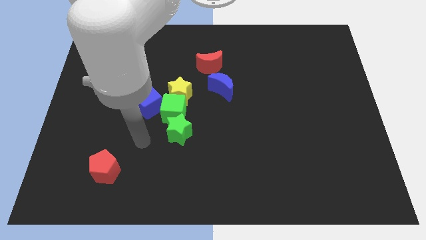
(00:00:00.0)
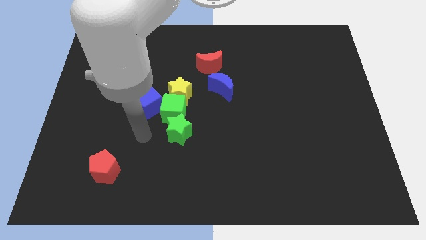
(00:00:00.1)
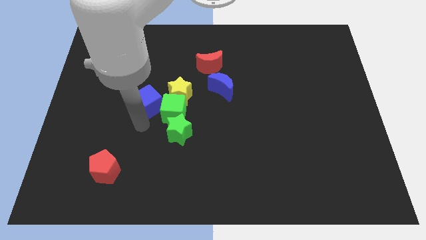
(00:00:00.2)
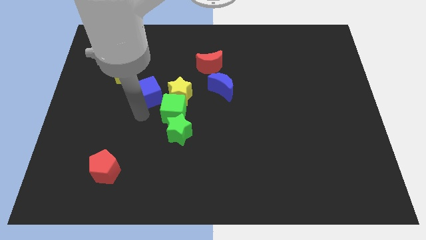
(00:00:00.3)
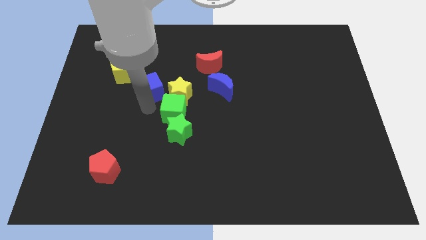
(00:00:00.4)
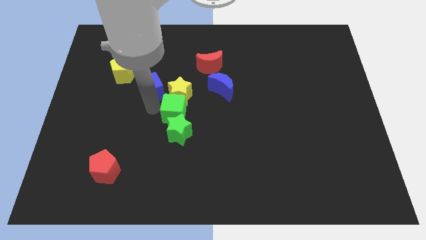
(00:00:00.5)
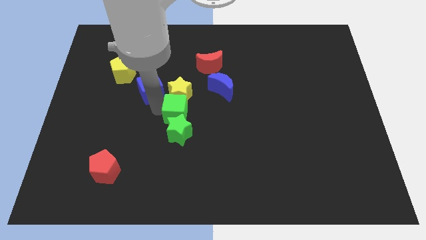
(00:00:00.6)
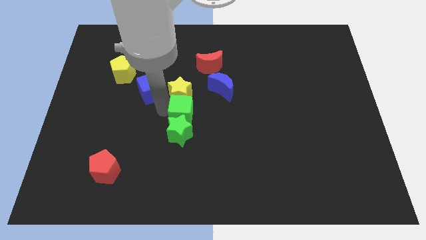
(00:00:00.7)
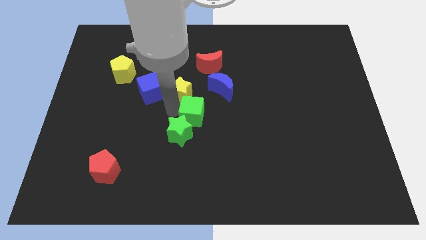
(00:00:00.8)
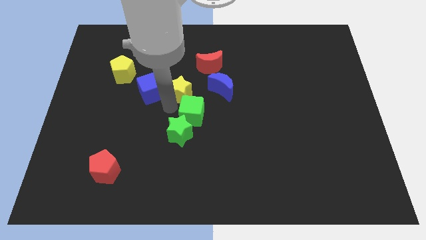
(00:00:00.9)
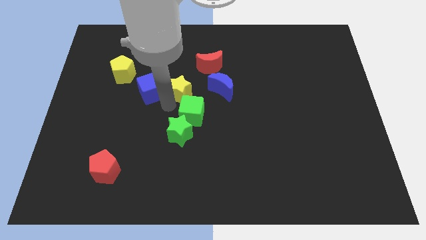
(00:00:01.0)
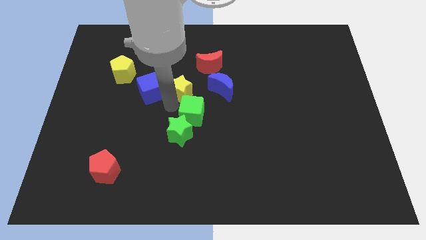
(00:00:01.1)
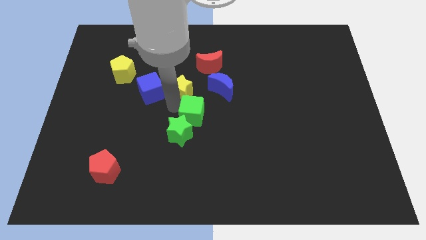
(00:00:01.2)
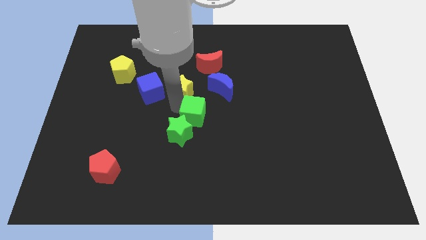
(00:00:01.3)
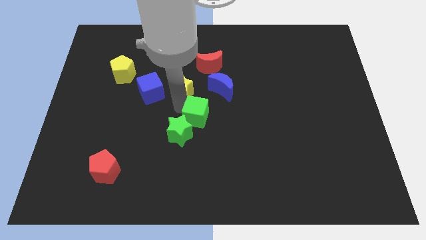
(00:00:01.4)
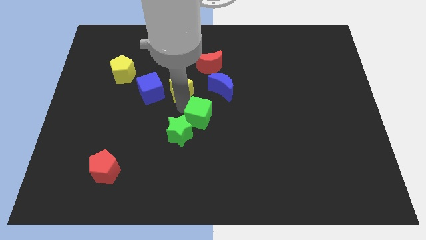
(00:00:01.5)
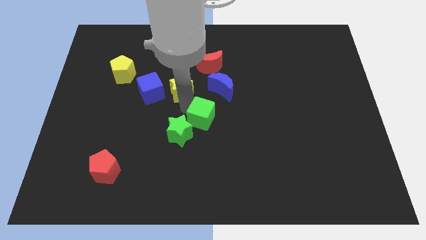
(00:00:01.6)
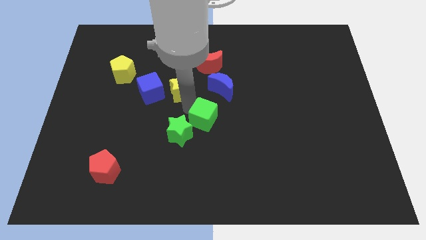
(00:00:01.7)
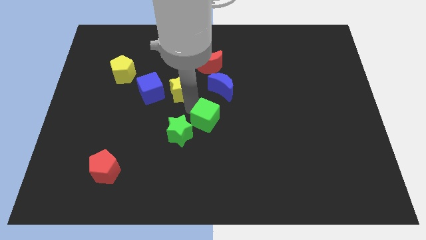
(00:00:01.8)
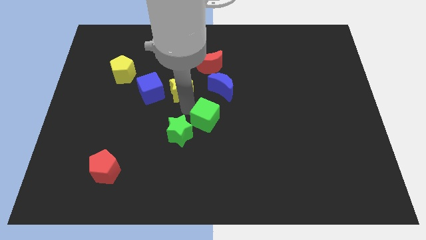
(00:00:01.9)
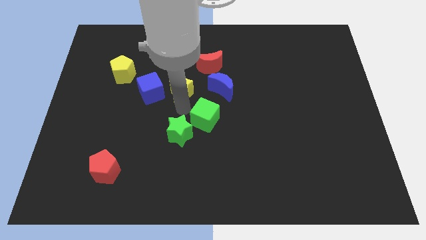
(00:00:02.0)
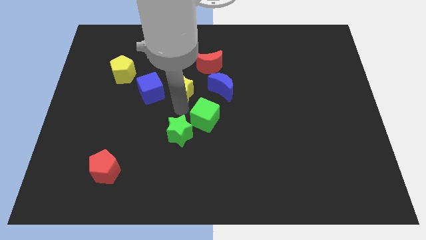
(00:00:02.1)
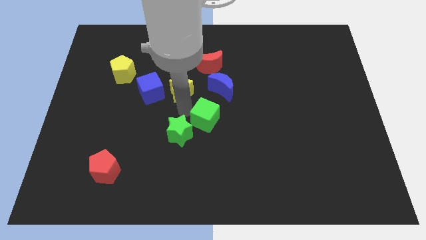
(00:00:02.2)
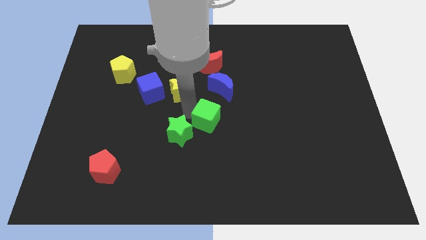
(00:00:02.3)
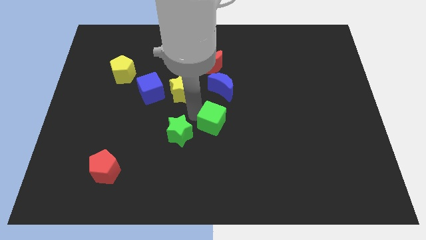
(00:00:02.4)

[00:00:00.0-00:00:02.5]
separate the green cube from the clump

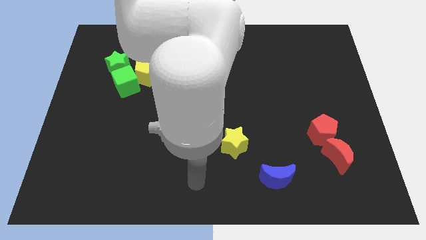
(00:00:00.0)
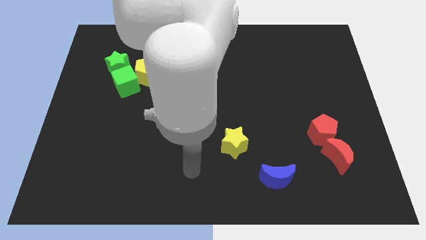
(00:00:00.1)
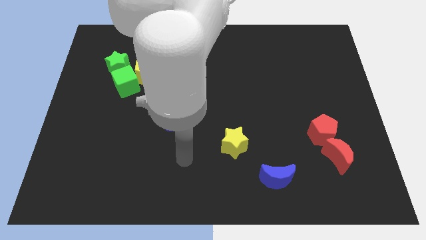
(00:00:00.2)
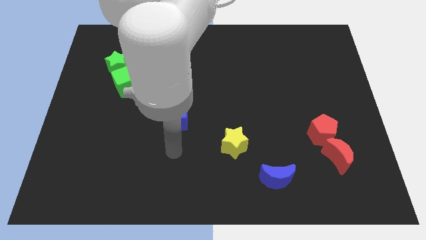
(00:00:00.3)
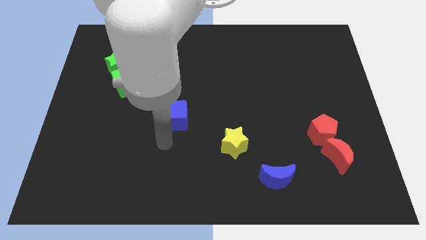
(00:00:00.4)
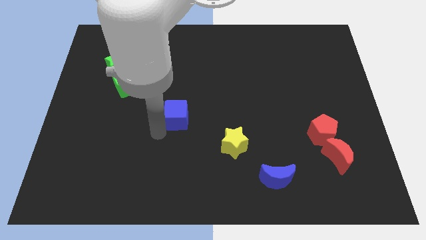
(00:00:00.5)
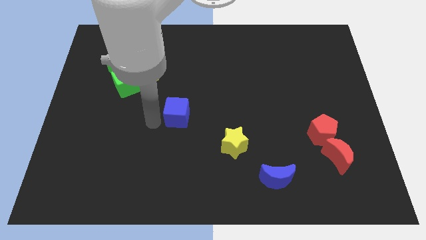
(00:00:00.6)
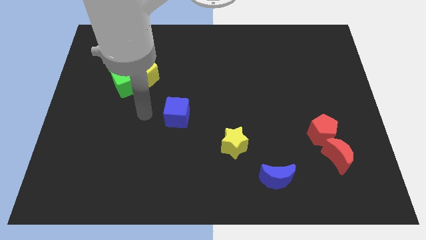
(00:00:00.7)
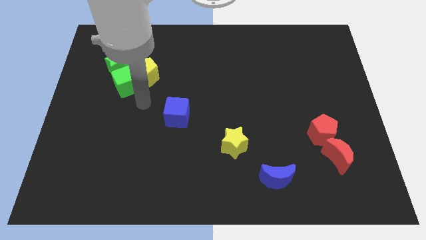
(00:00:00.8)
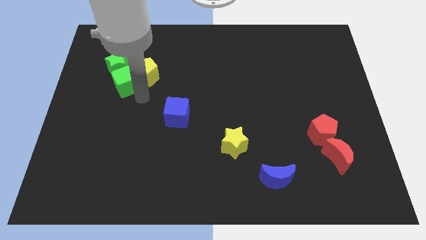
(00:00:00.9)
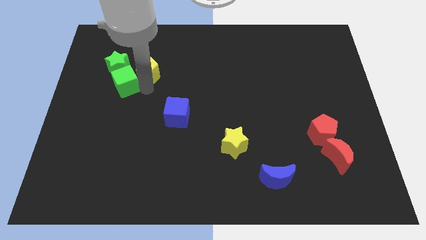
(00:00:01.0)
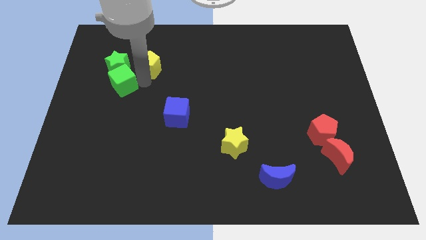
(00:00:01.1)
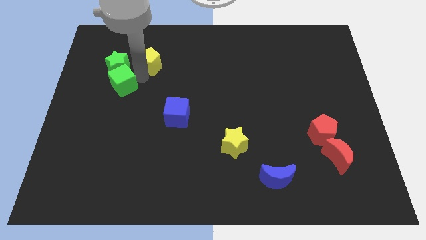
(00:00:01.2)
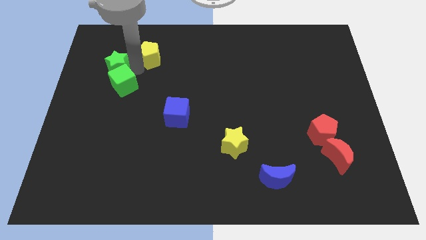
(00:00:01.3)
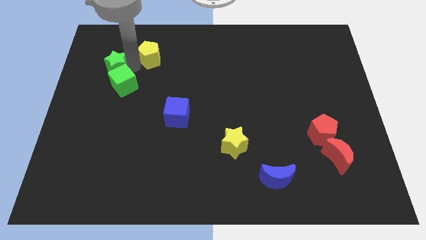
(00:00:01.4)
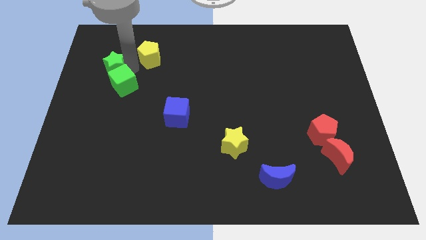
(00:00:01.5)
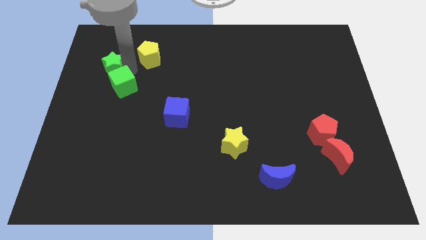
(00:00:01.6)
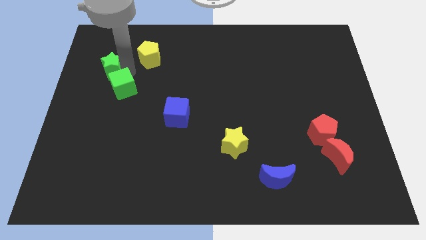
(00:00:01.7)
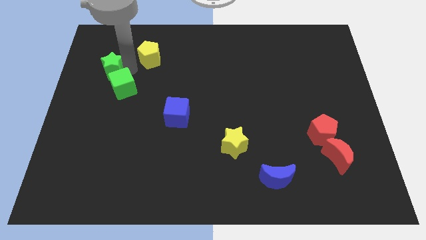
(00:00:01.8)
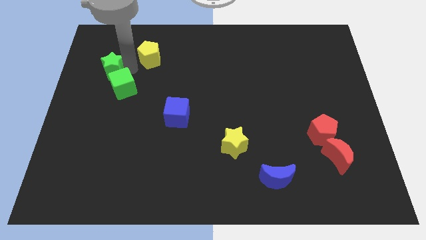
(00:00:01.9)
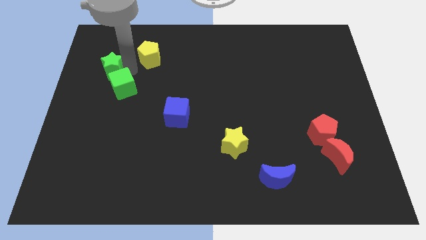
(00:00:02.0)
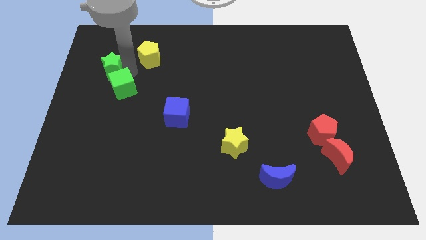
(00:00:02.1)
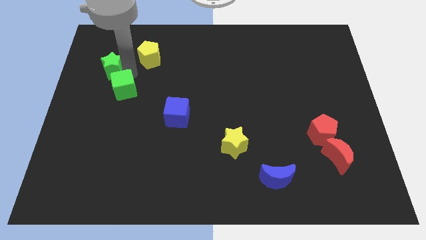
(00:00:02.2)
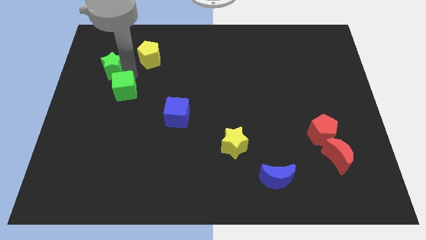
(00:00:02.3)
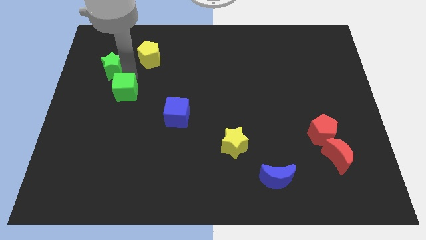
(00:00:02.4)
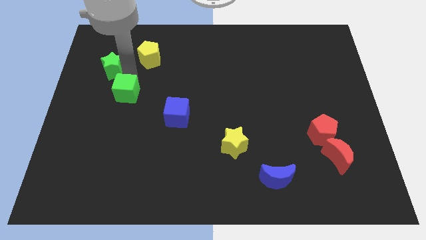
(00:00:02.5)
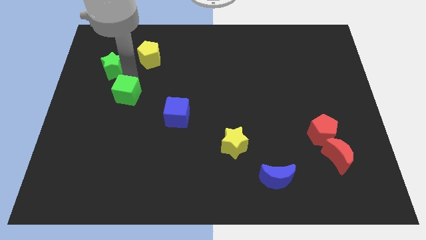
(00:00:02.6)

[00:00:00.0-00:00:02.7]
move the green cube away from the yellow pentagon and green star

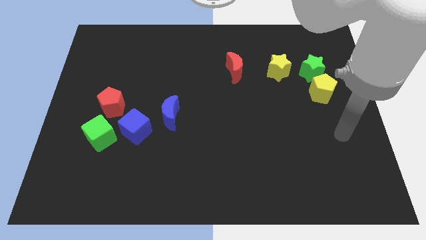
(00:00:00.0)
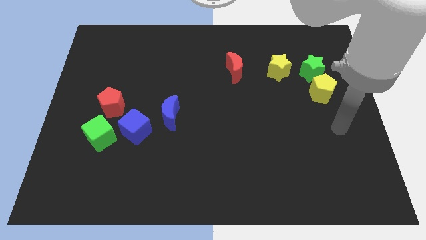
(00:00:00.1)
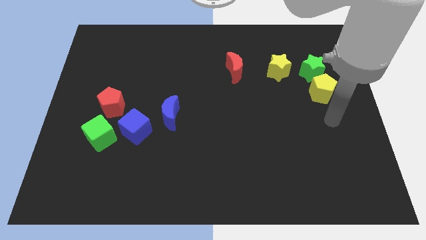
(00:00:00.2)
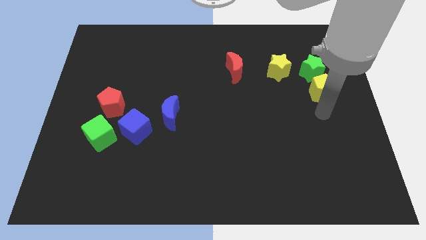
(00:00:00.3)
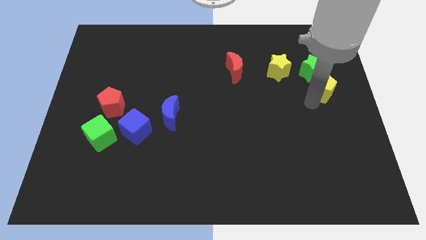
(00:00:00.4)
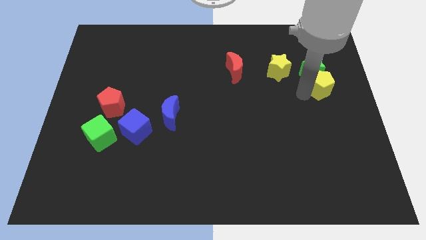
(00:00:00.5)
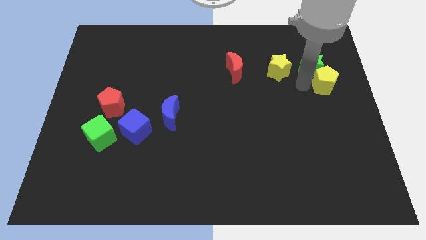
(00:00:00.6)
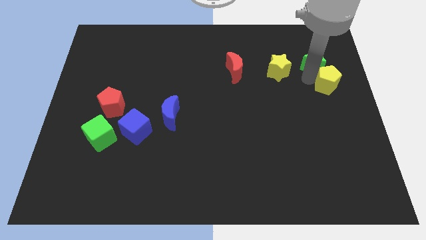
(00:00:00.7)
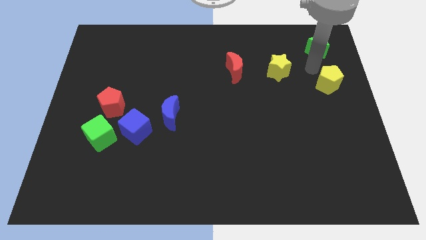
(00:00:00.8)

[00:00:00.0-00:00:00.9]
pull the yellow pentagon apart from the green star

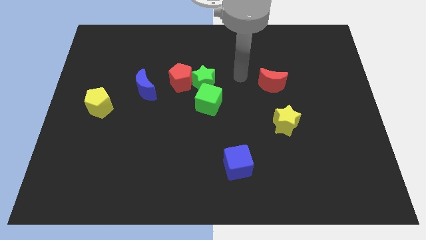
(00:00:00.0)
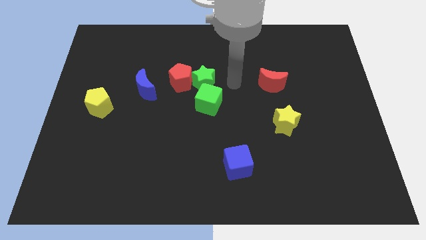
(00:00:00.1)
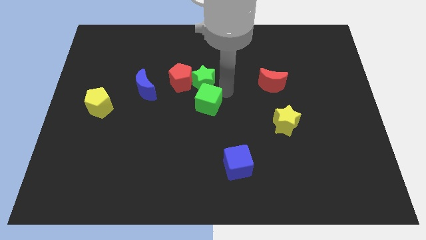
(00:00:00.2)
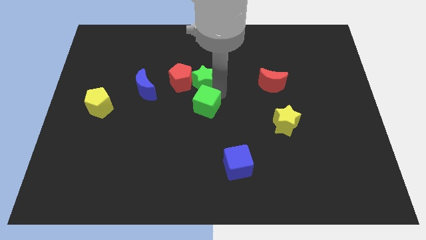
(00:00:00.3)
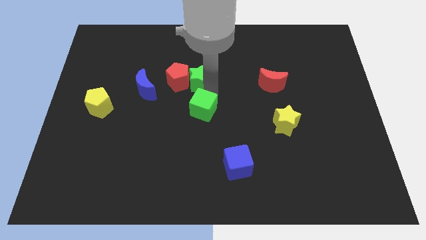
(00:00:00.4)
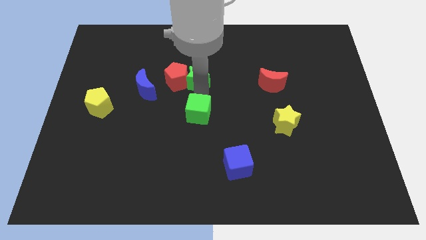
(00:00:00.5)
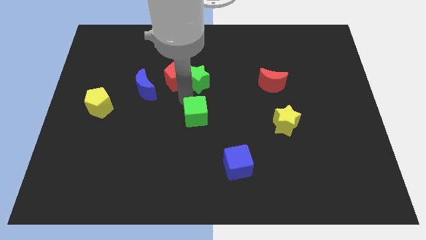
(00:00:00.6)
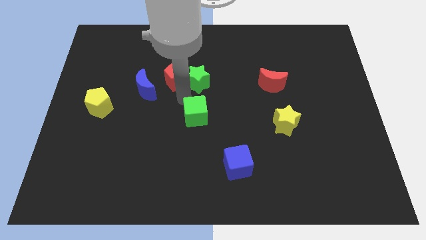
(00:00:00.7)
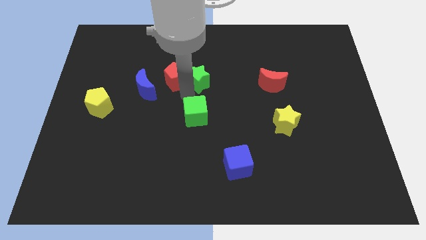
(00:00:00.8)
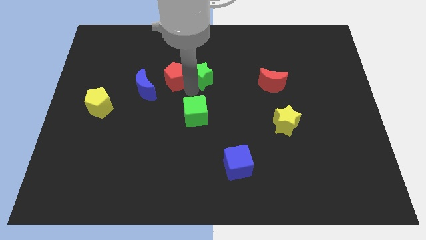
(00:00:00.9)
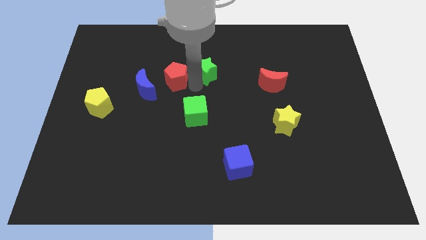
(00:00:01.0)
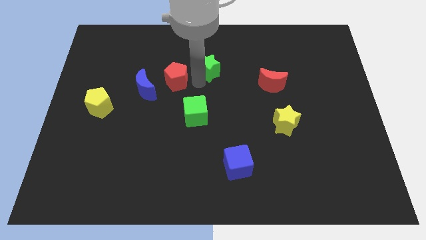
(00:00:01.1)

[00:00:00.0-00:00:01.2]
pull the green star apart from the red pentagon and green cube

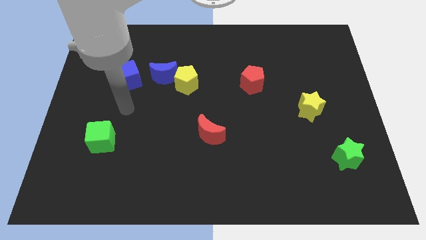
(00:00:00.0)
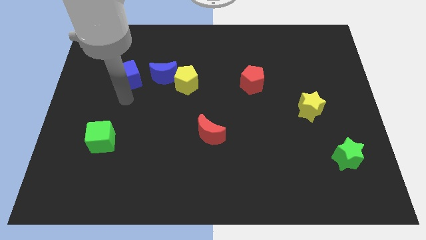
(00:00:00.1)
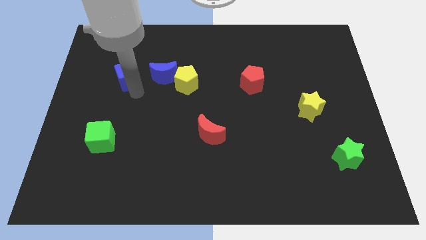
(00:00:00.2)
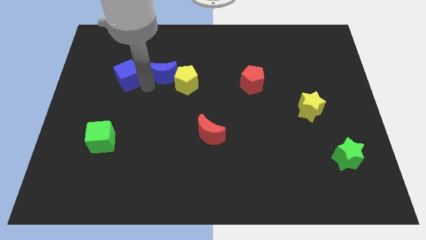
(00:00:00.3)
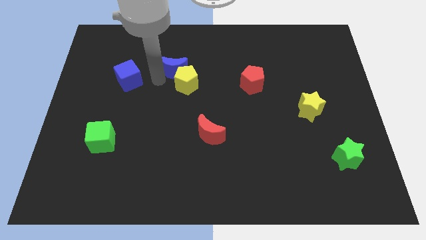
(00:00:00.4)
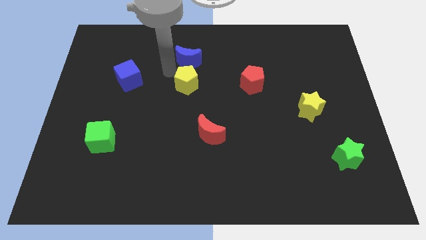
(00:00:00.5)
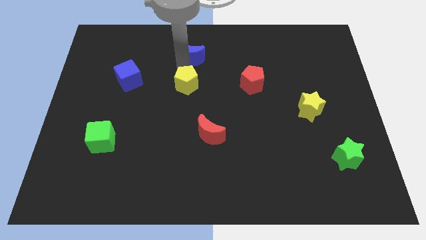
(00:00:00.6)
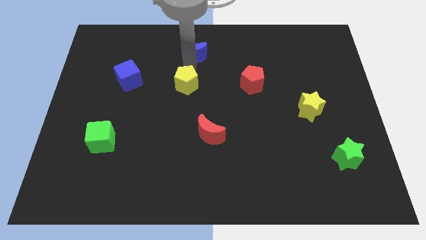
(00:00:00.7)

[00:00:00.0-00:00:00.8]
separate the yellow pentagon from the blue moon

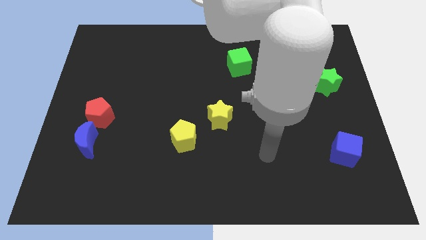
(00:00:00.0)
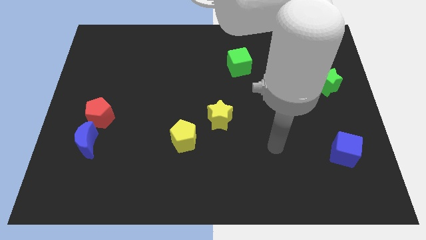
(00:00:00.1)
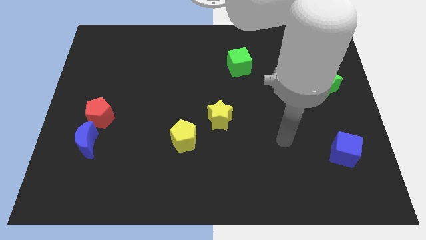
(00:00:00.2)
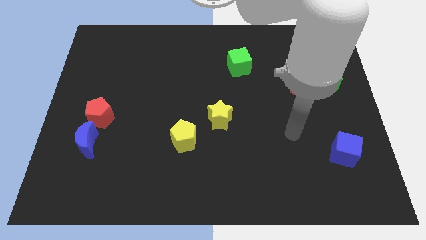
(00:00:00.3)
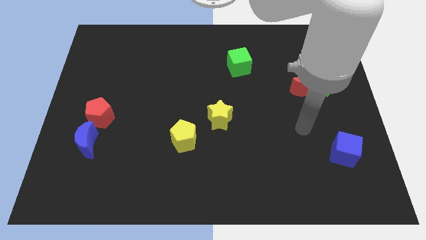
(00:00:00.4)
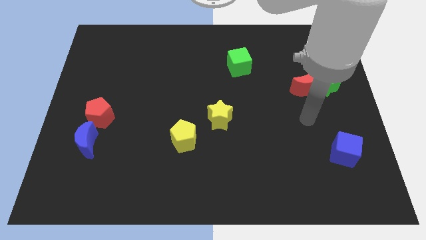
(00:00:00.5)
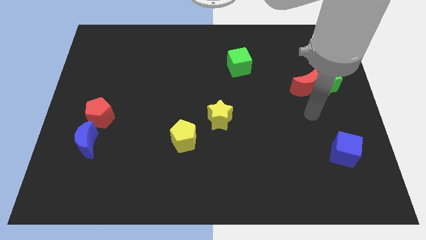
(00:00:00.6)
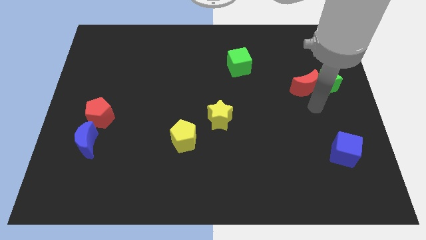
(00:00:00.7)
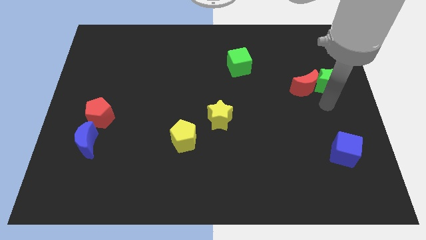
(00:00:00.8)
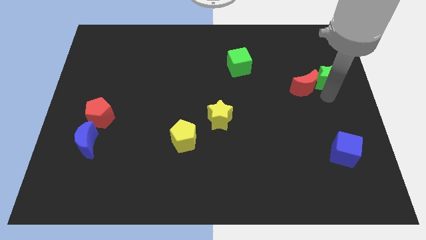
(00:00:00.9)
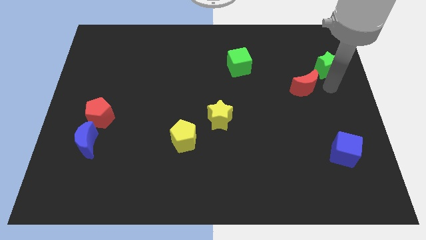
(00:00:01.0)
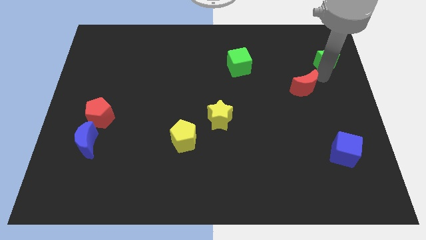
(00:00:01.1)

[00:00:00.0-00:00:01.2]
separate the red moon from the green star
